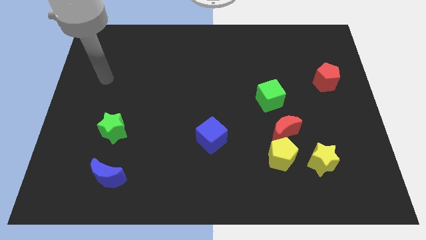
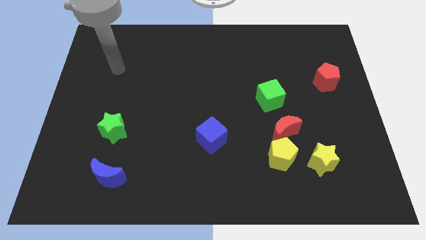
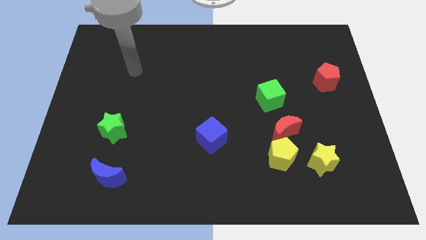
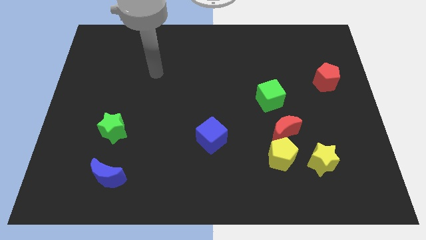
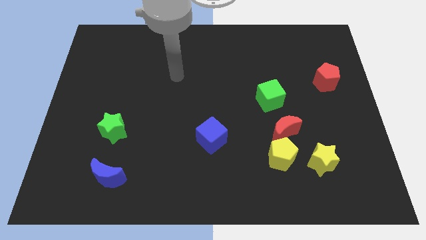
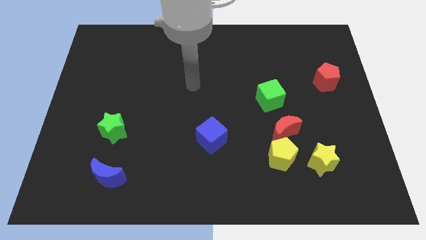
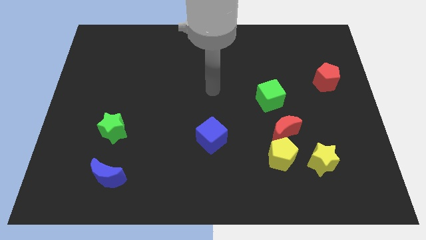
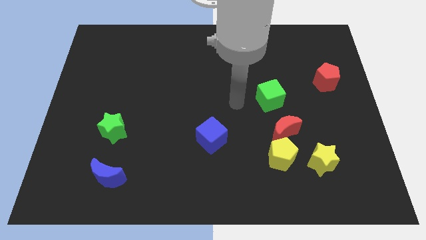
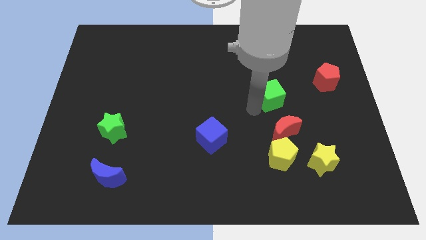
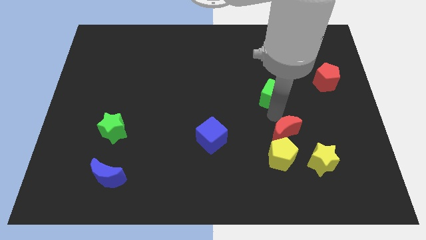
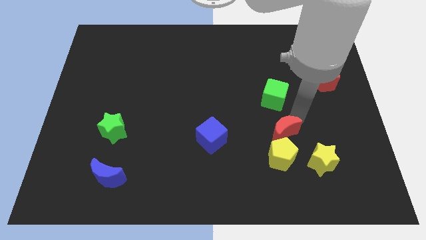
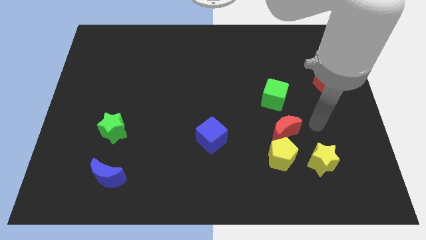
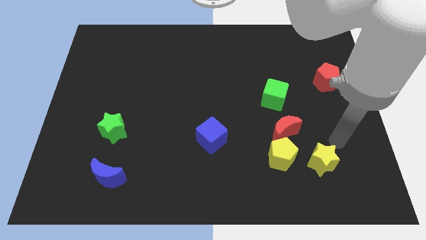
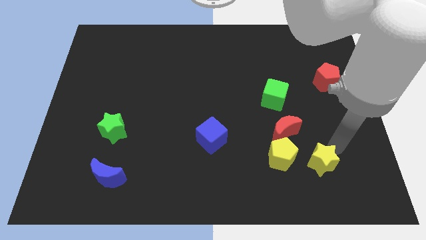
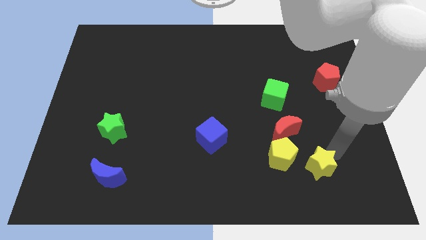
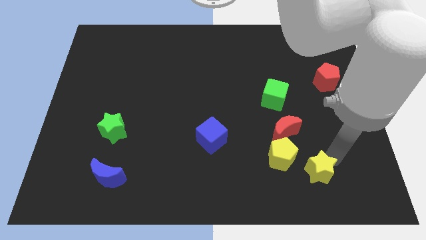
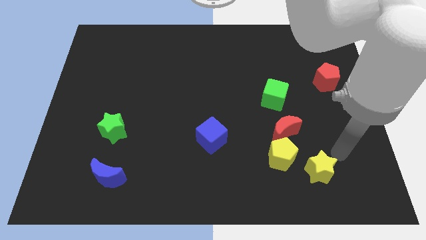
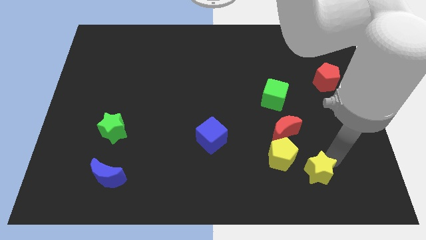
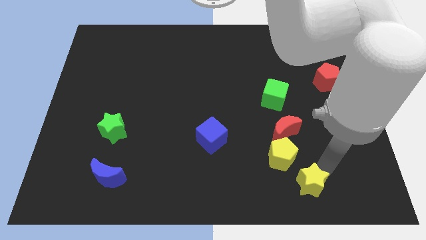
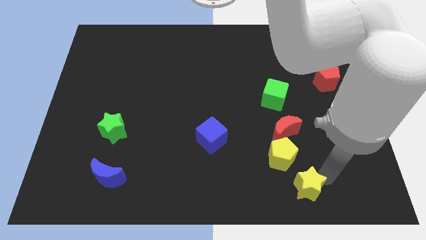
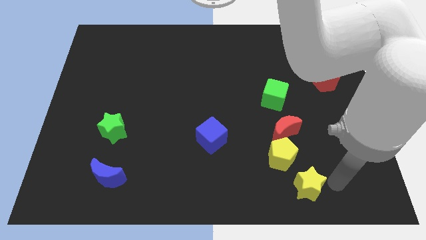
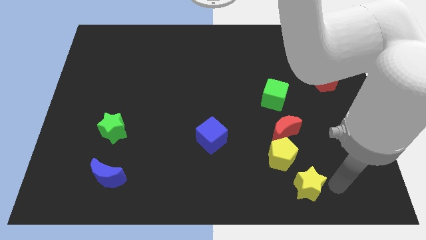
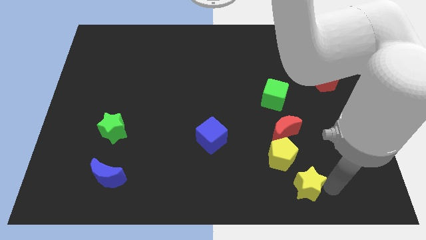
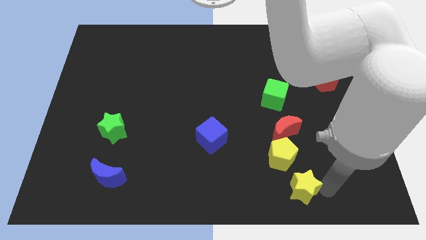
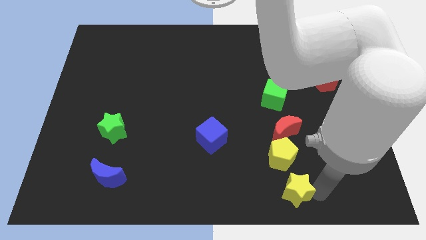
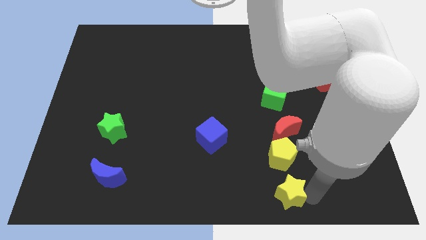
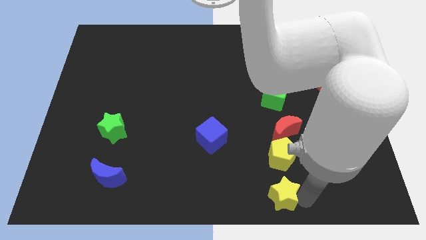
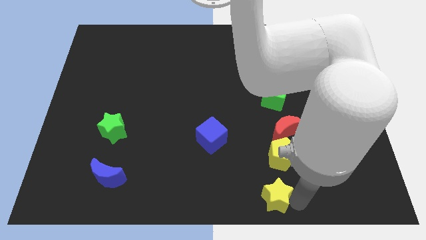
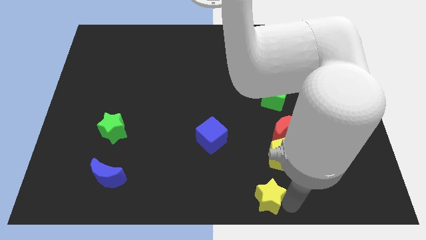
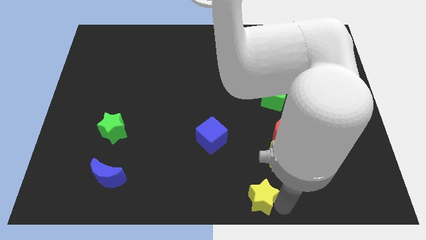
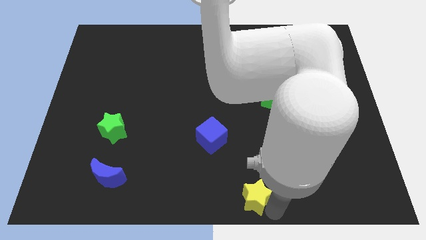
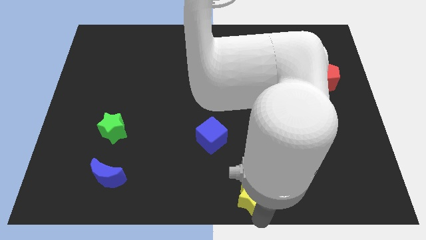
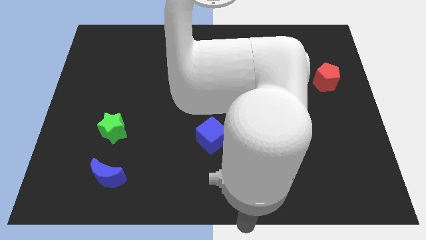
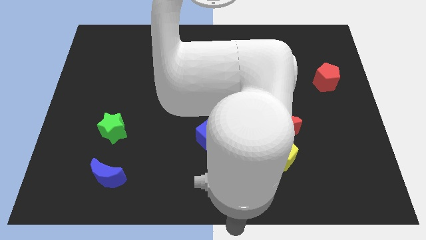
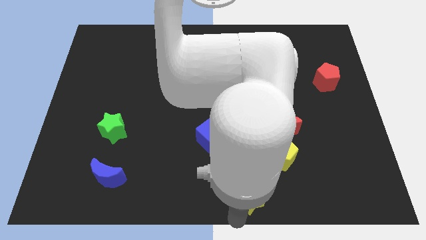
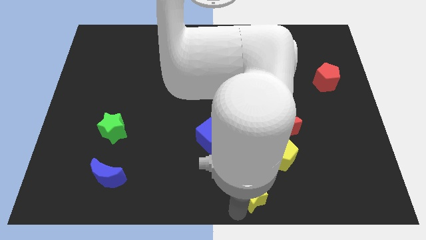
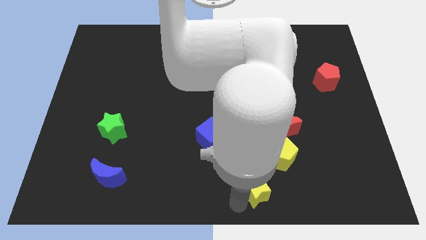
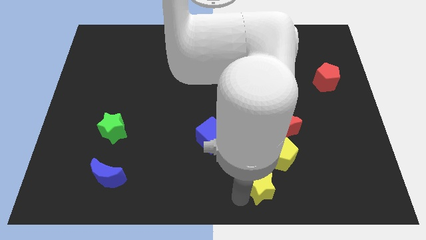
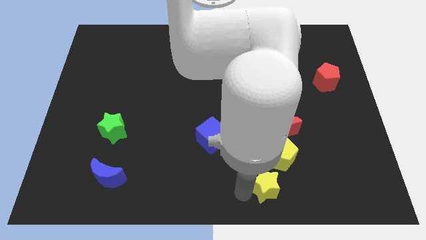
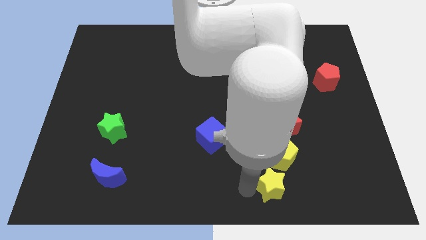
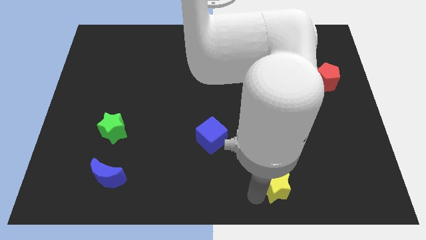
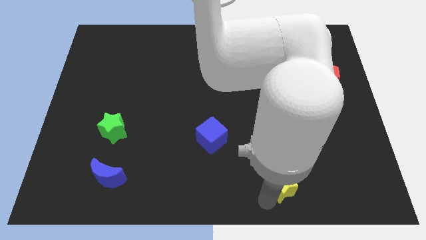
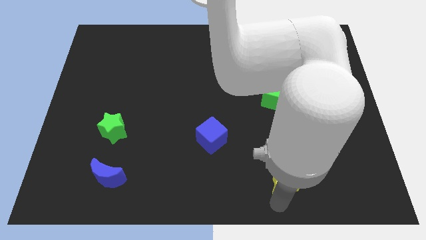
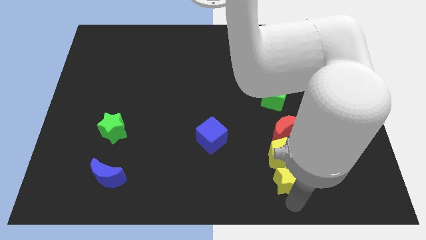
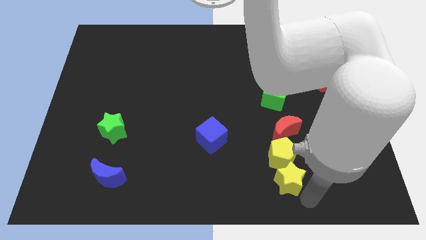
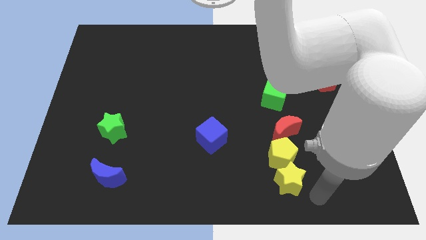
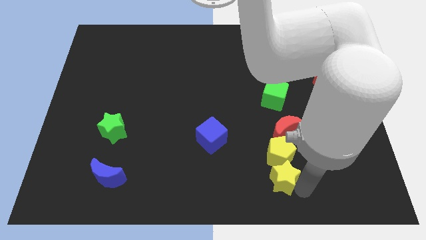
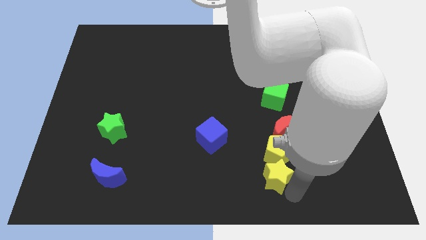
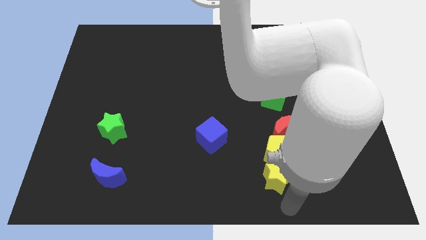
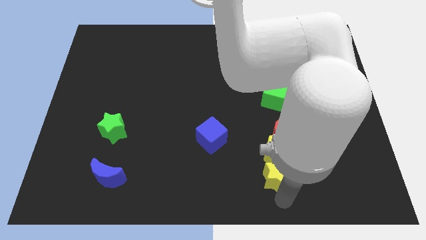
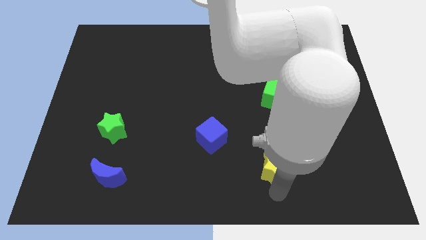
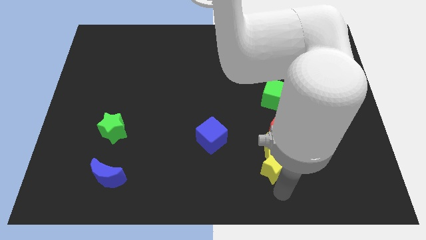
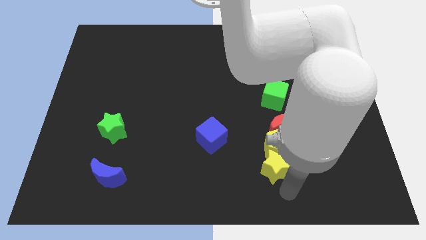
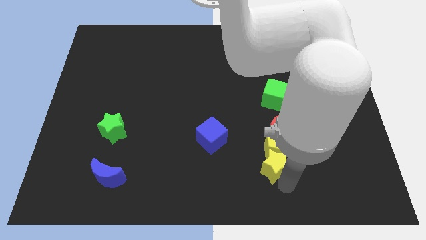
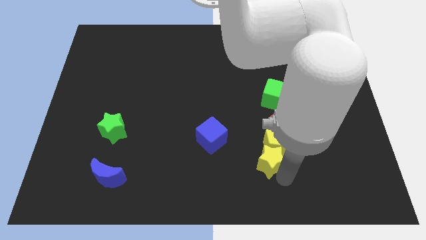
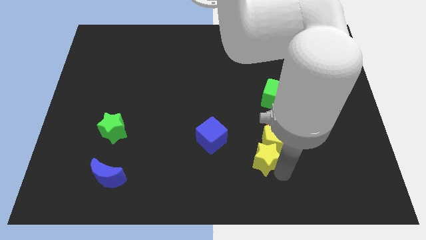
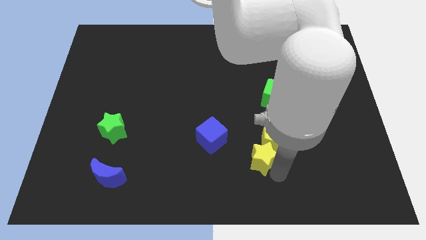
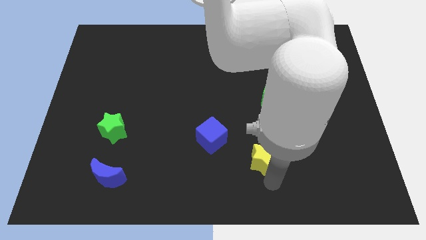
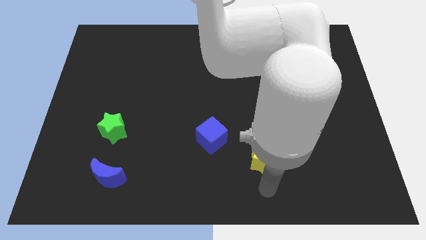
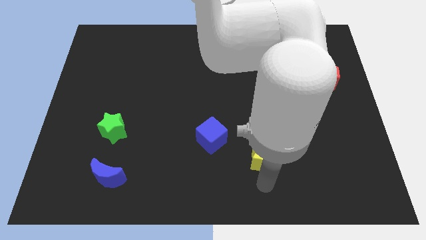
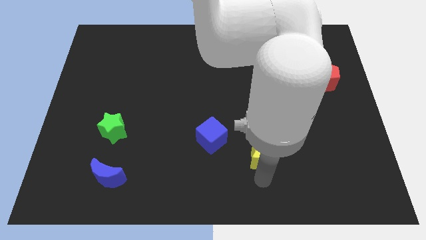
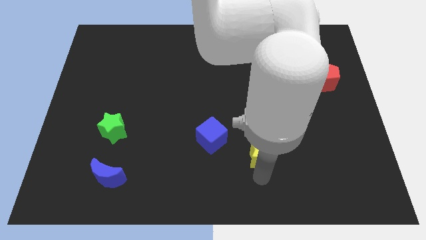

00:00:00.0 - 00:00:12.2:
move the yellow star upwards and left diagonally a little bit

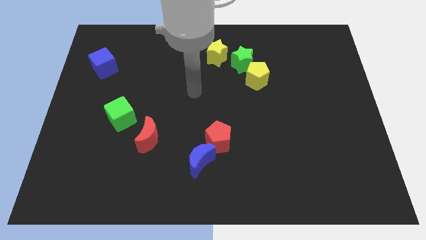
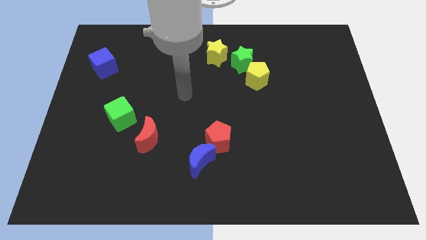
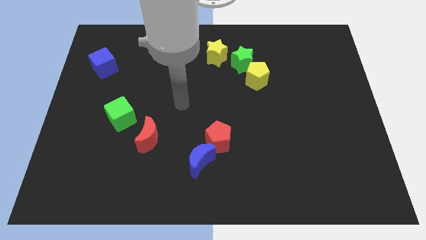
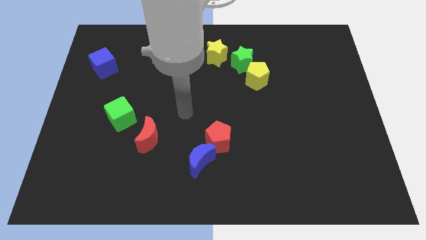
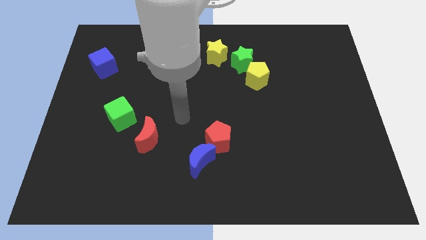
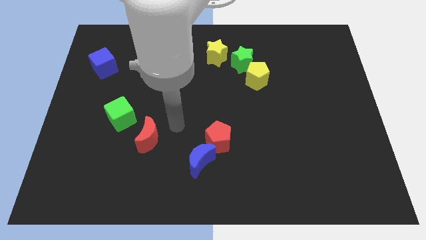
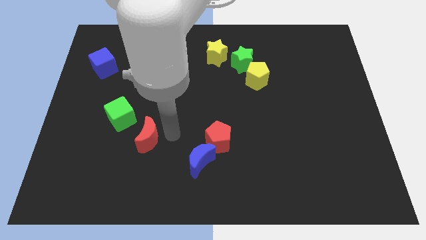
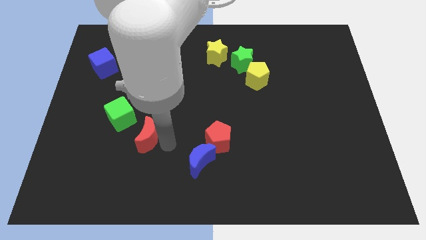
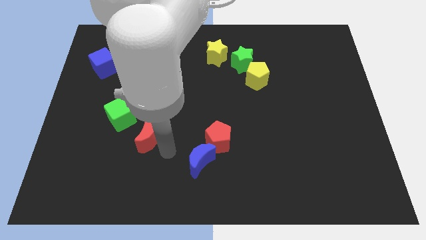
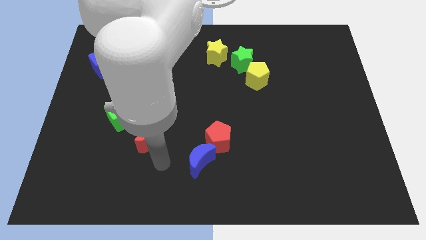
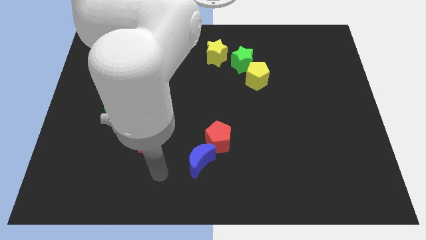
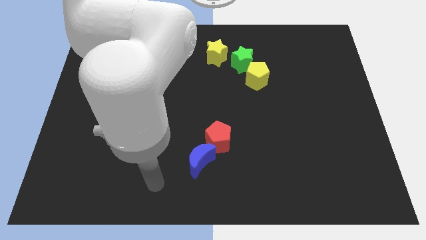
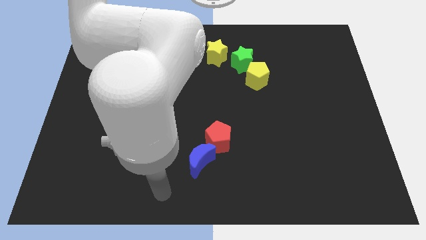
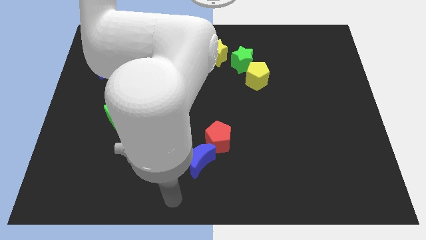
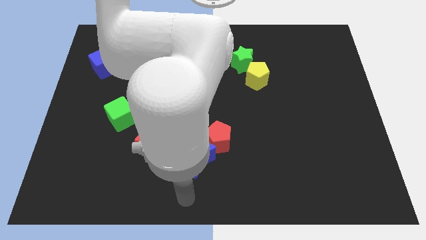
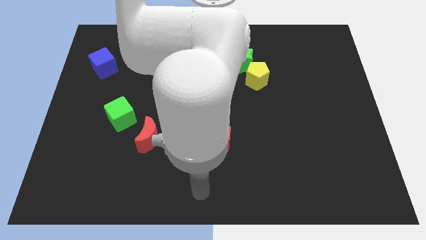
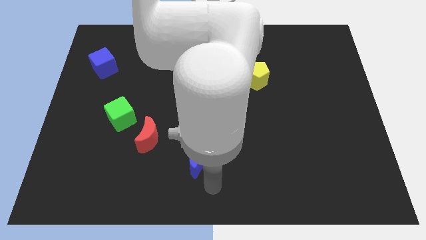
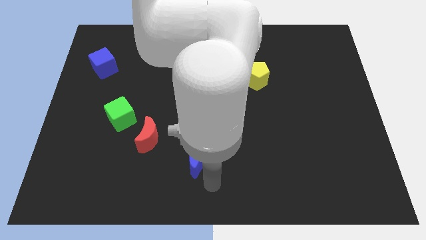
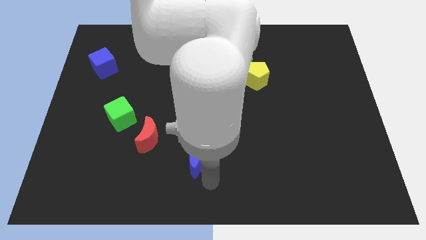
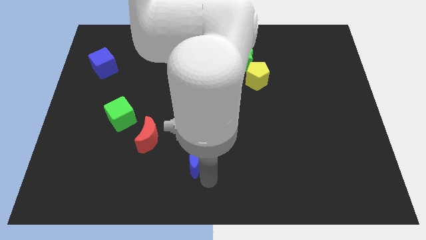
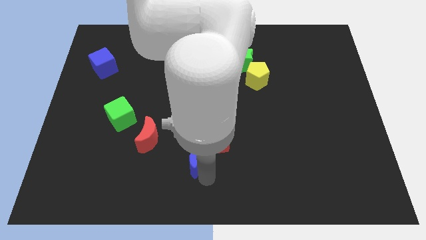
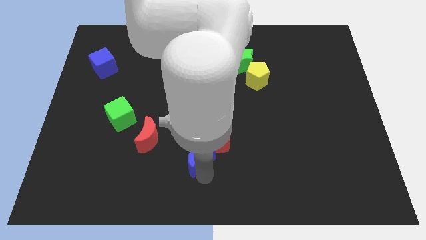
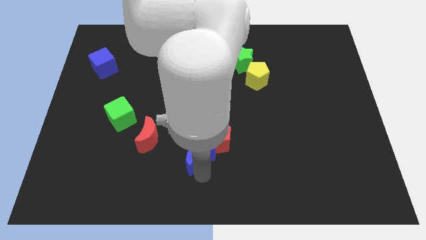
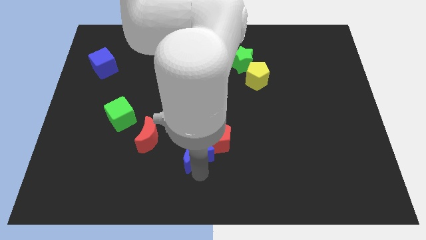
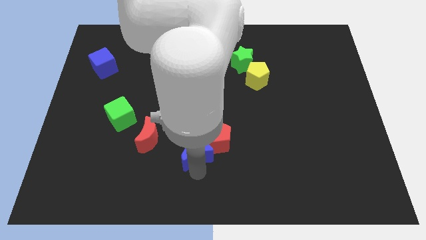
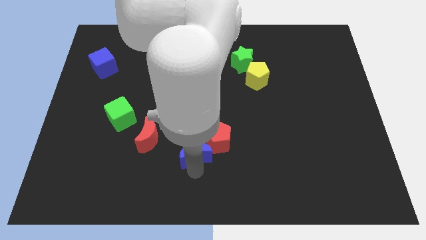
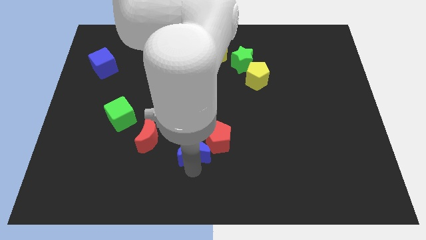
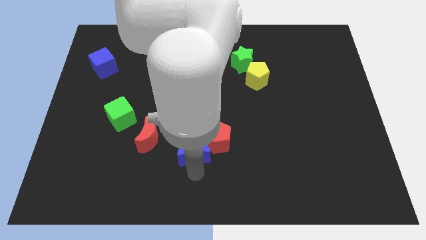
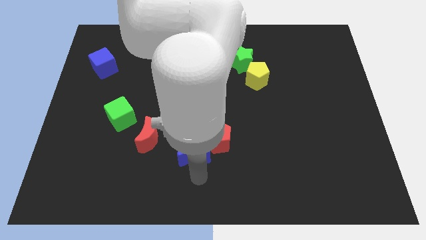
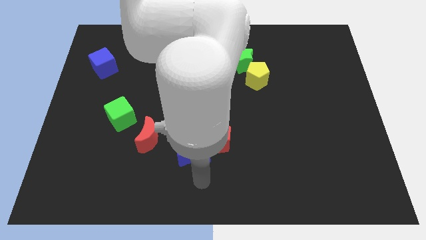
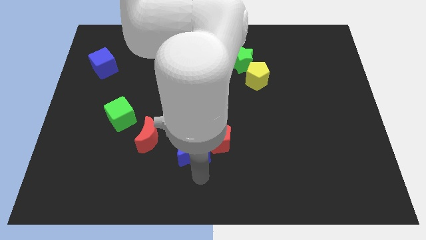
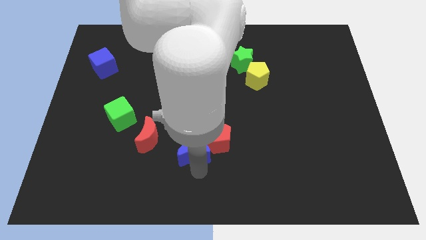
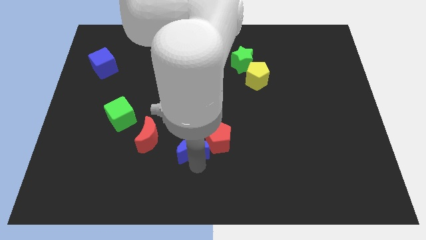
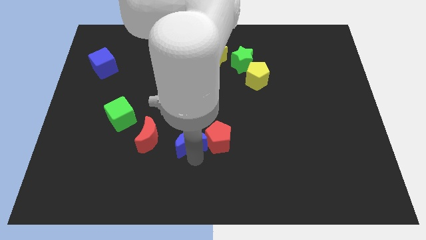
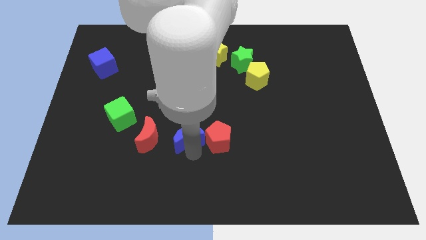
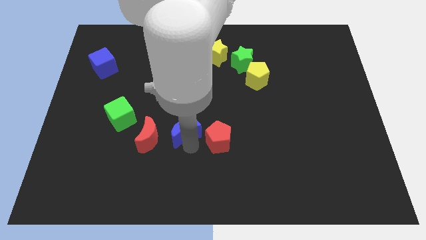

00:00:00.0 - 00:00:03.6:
slightly slide the blue moon upwards and then left
